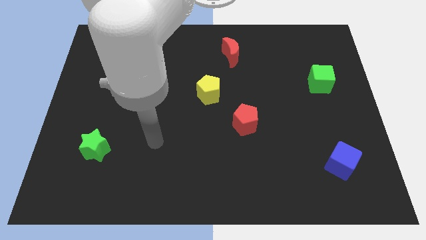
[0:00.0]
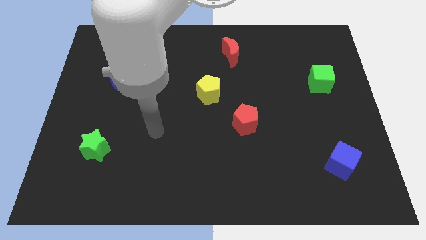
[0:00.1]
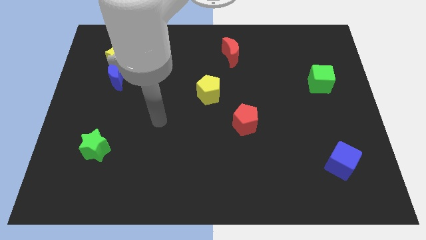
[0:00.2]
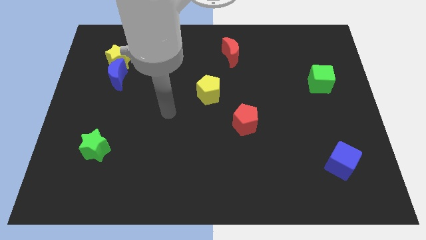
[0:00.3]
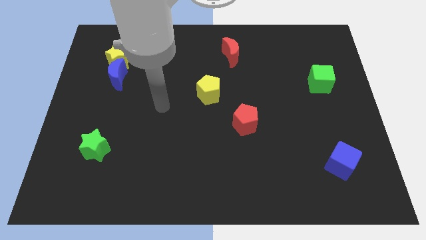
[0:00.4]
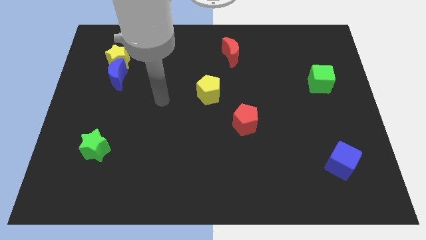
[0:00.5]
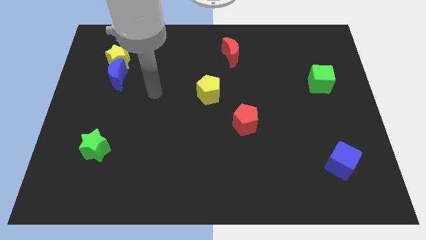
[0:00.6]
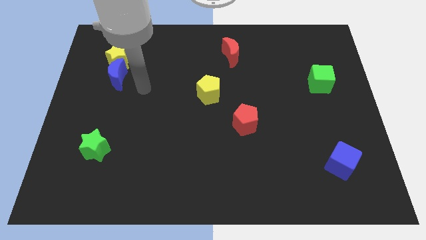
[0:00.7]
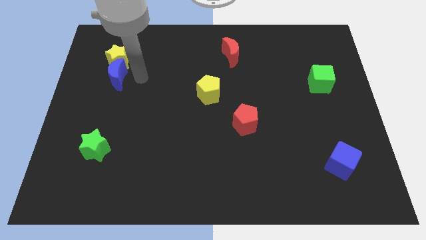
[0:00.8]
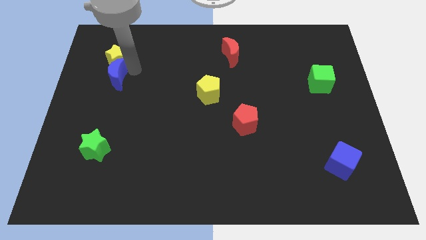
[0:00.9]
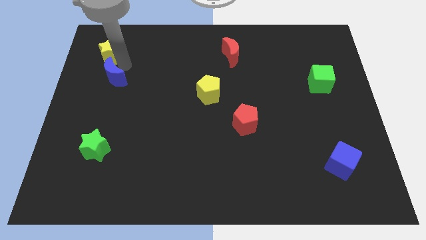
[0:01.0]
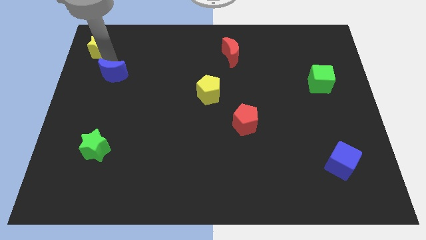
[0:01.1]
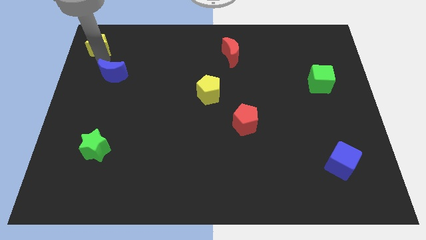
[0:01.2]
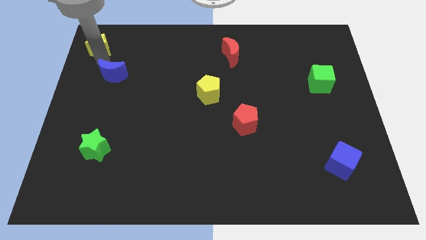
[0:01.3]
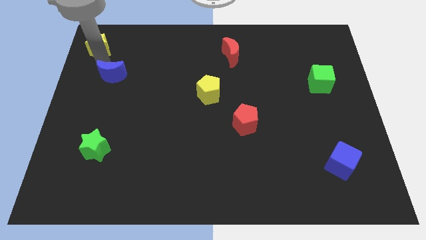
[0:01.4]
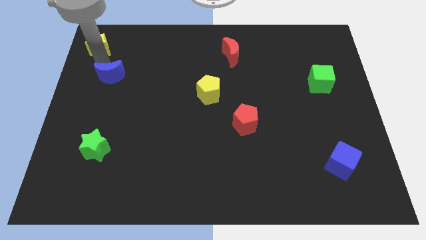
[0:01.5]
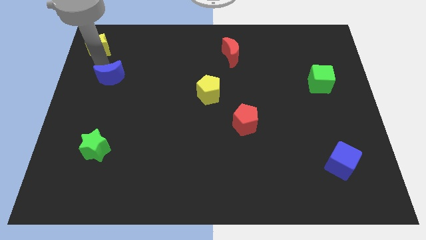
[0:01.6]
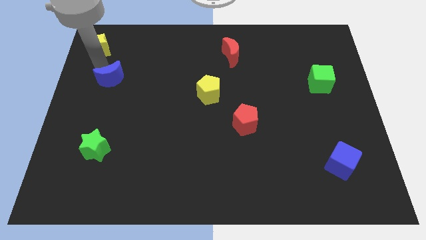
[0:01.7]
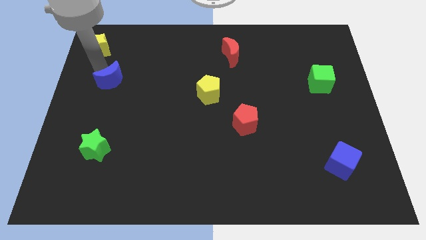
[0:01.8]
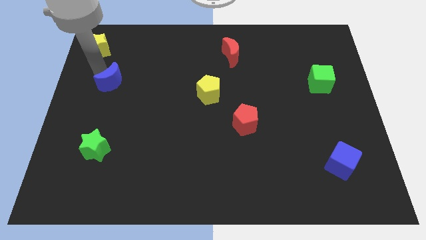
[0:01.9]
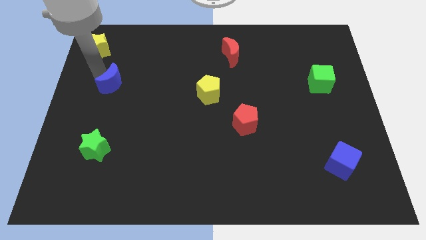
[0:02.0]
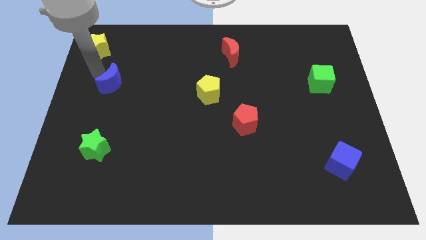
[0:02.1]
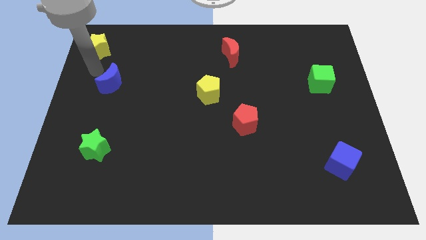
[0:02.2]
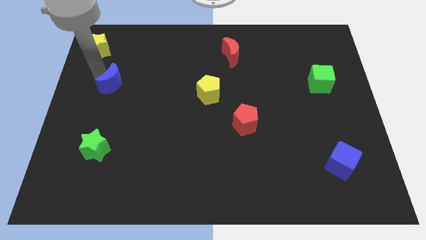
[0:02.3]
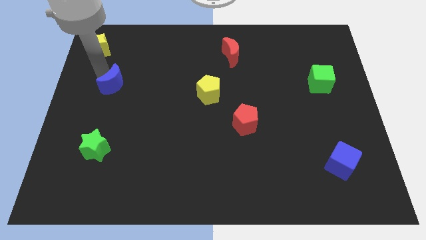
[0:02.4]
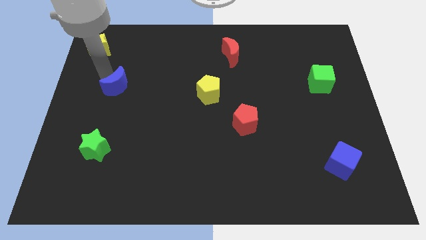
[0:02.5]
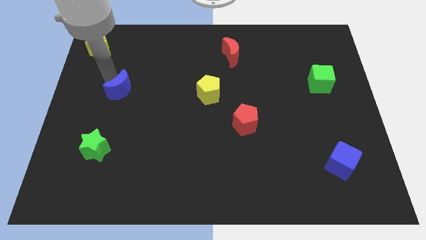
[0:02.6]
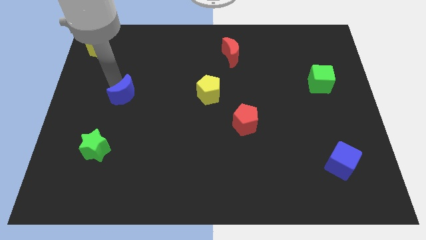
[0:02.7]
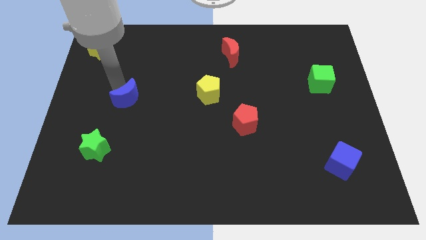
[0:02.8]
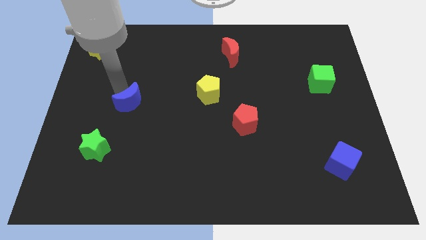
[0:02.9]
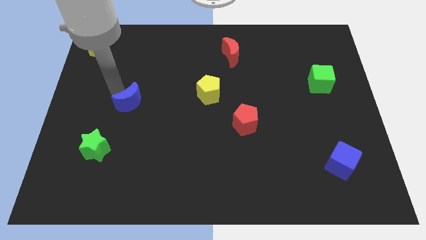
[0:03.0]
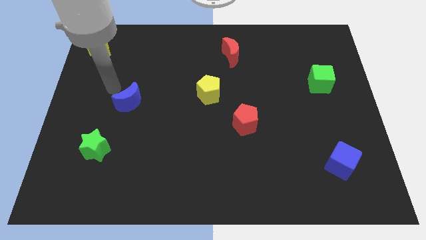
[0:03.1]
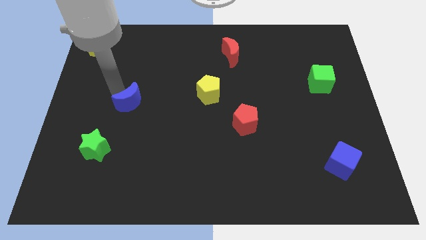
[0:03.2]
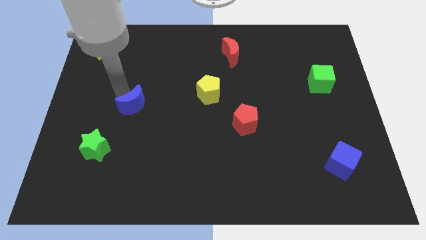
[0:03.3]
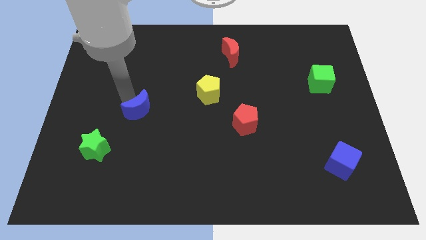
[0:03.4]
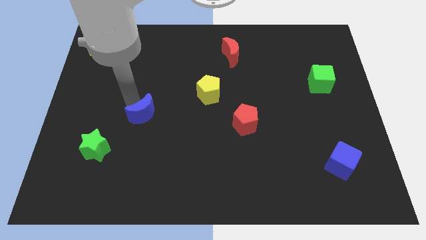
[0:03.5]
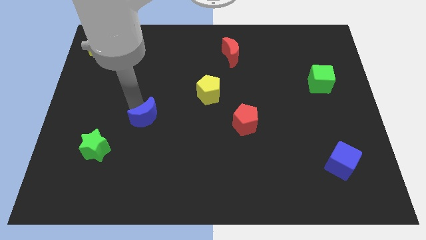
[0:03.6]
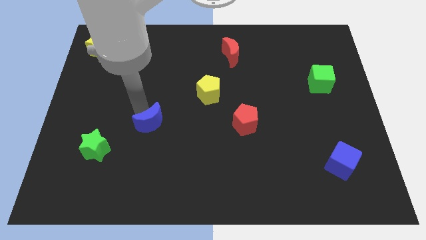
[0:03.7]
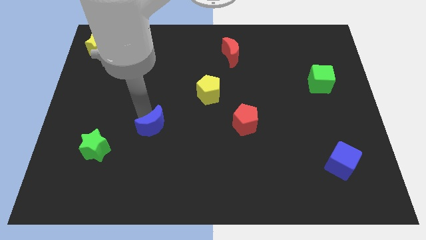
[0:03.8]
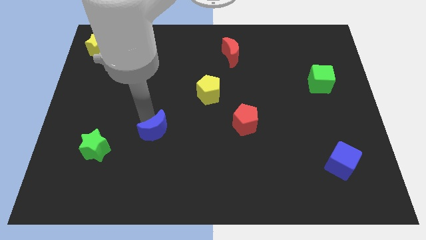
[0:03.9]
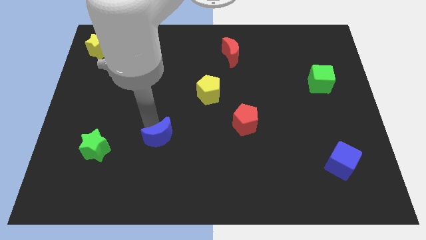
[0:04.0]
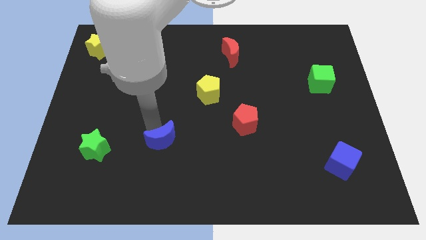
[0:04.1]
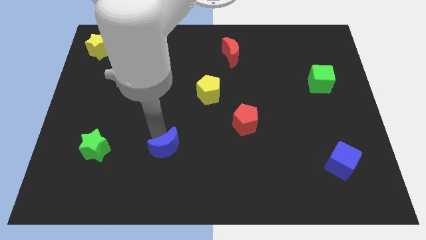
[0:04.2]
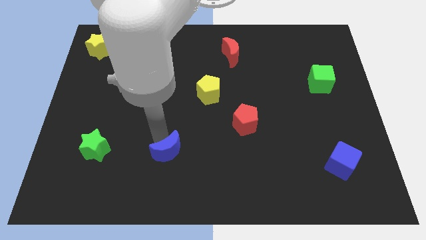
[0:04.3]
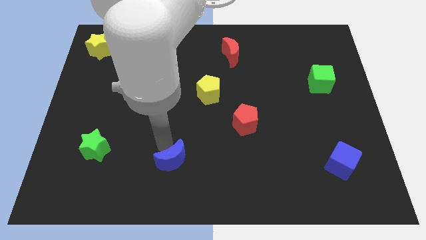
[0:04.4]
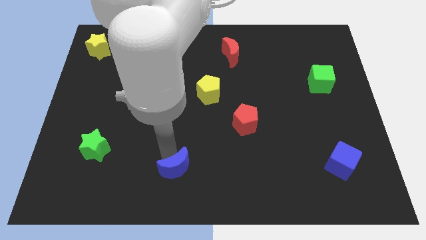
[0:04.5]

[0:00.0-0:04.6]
push the blue moon to the bottom

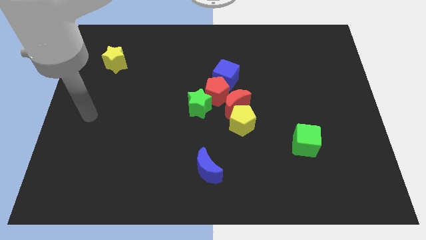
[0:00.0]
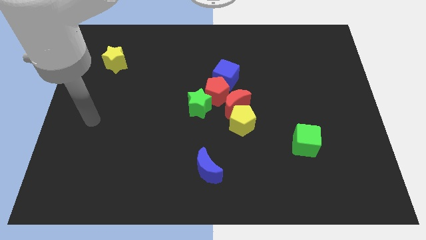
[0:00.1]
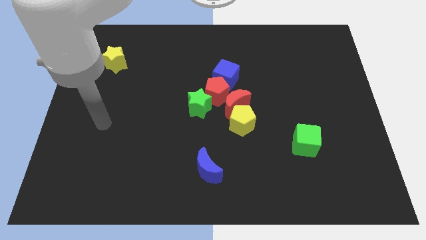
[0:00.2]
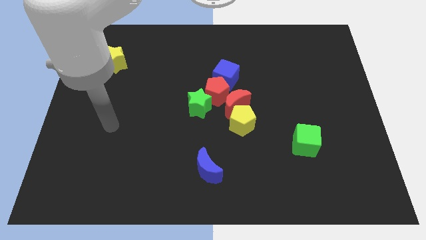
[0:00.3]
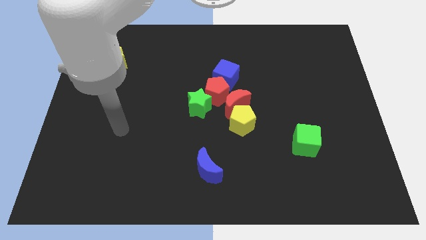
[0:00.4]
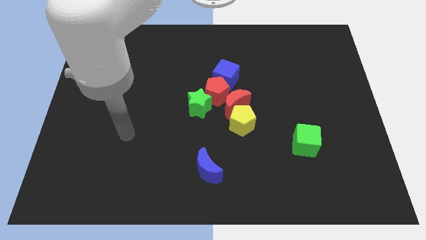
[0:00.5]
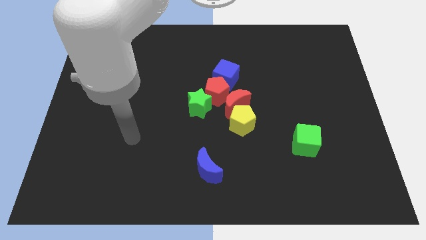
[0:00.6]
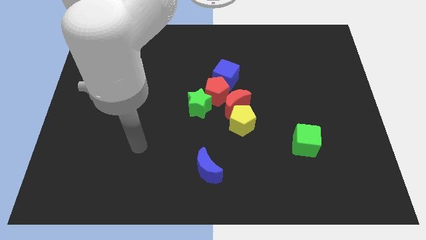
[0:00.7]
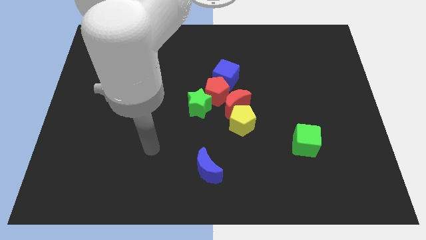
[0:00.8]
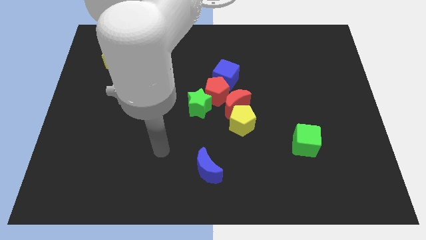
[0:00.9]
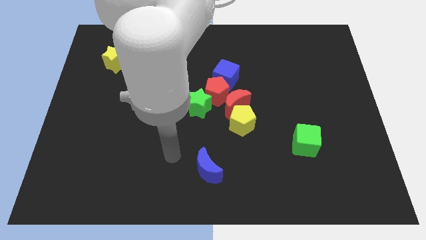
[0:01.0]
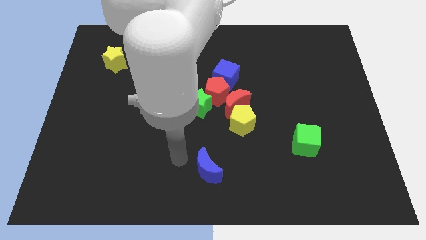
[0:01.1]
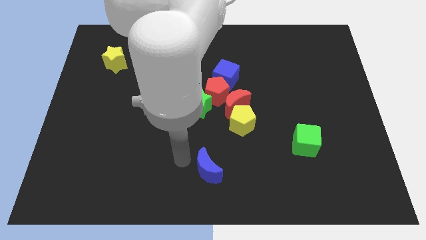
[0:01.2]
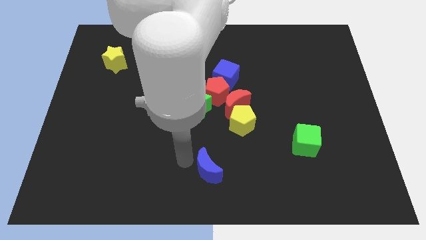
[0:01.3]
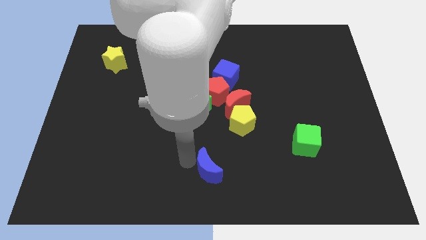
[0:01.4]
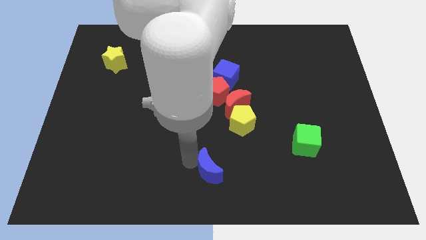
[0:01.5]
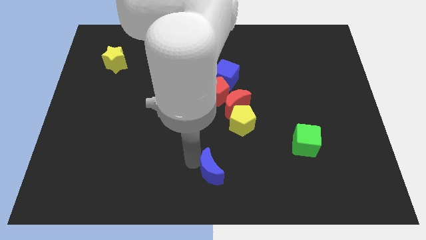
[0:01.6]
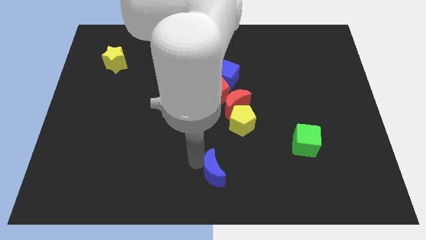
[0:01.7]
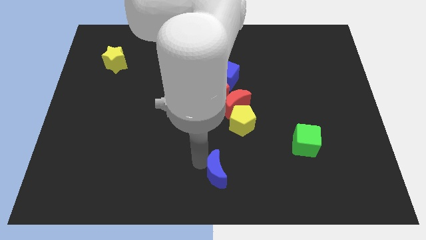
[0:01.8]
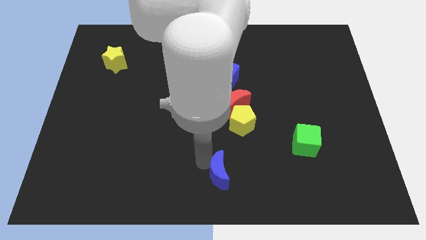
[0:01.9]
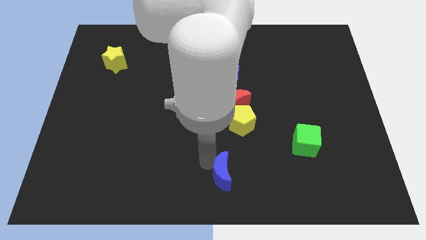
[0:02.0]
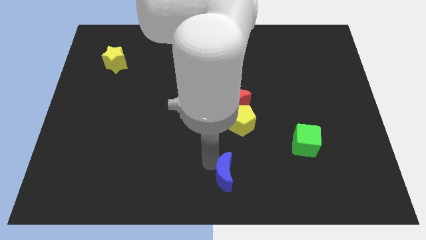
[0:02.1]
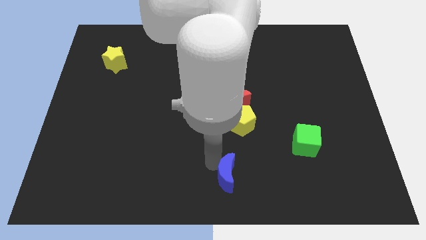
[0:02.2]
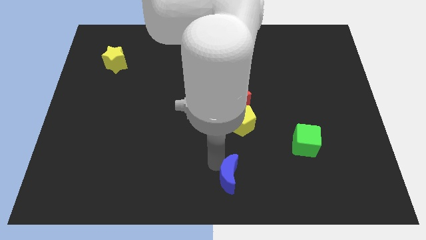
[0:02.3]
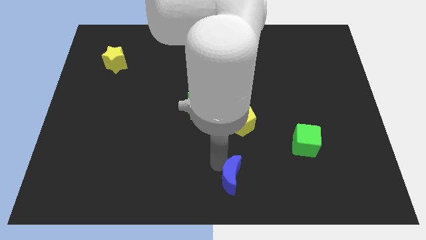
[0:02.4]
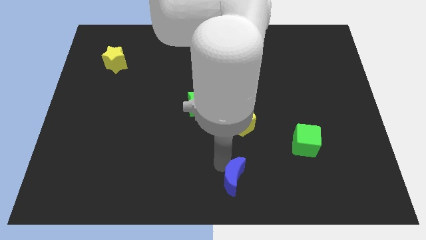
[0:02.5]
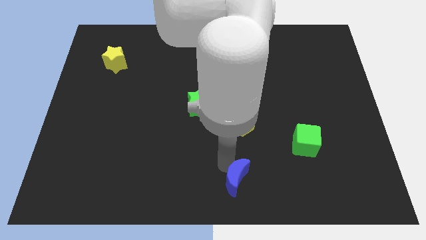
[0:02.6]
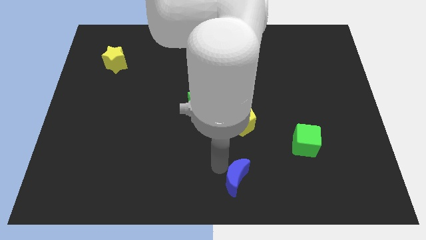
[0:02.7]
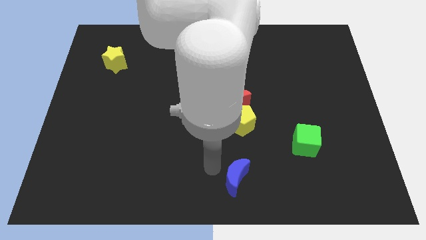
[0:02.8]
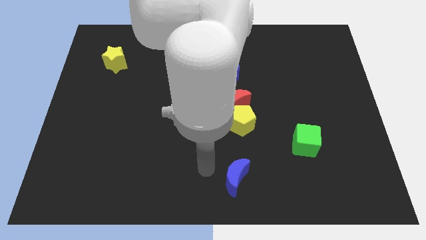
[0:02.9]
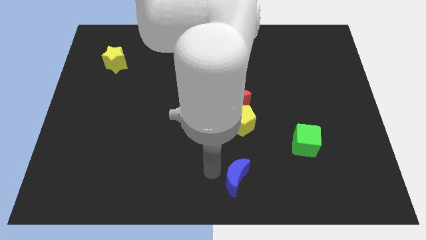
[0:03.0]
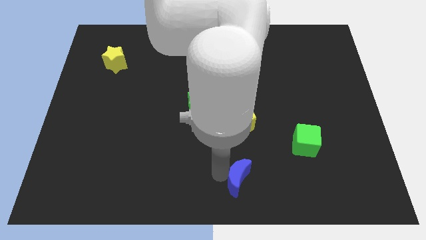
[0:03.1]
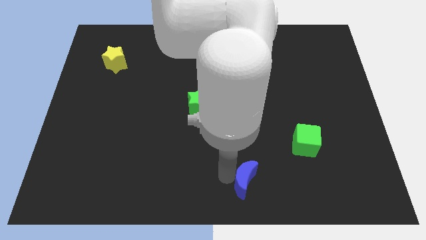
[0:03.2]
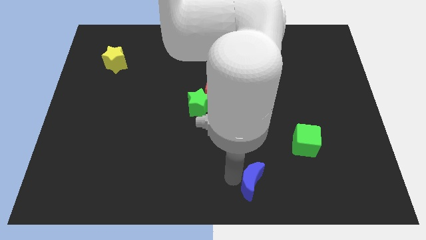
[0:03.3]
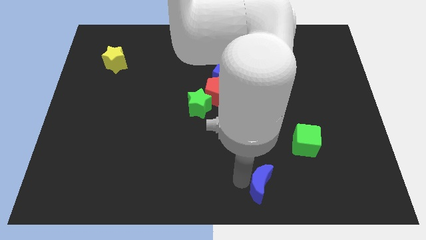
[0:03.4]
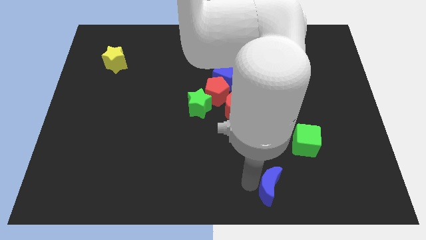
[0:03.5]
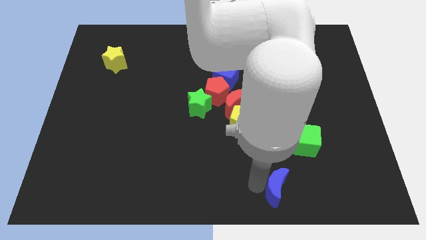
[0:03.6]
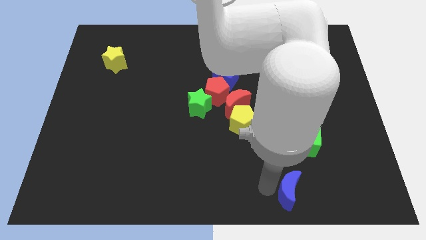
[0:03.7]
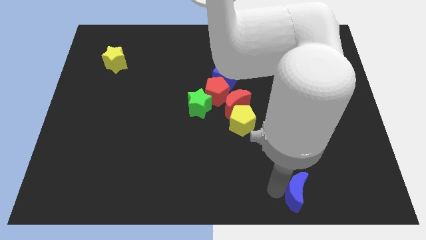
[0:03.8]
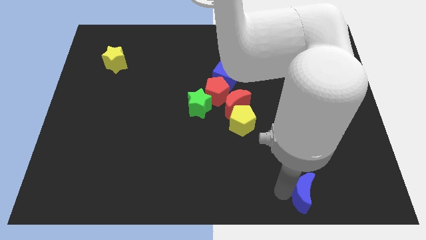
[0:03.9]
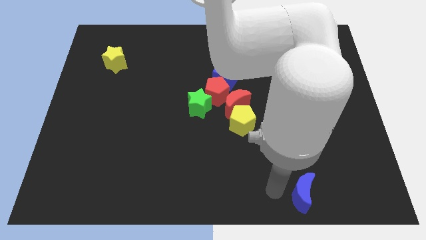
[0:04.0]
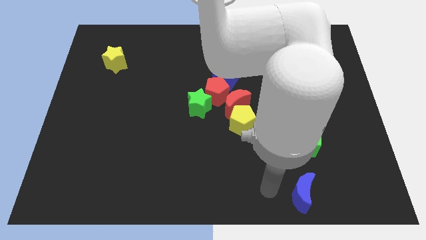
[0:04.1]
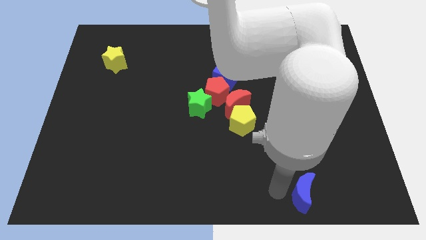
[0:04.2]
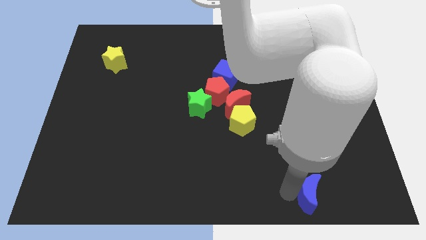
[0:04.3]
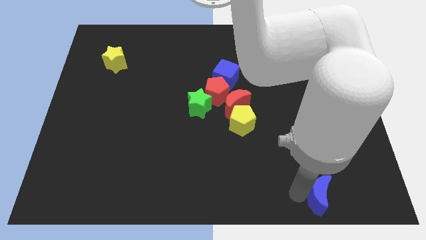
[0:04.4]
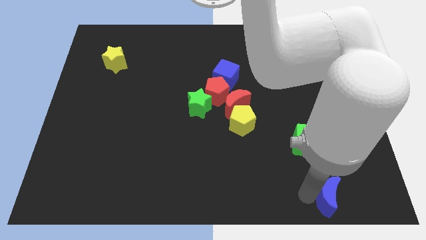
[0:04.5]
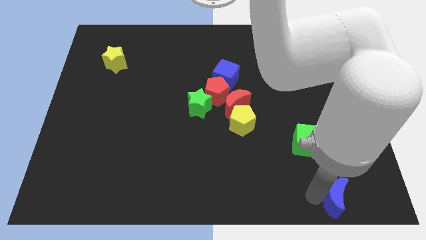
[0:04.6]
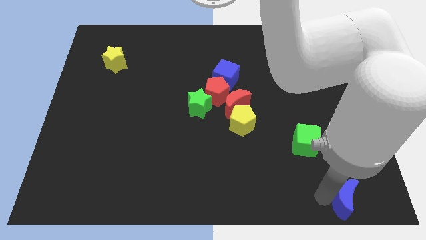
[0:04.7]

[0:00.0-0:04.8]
put the blue moon to the bottom right corner
